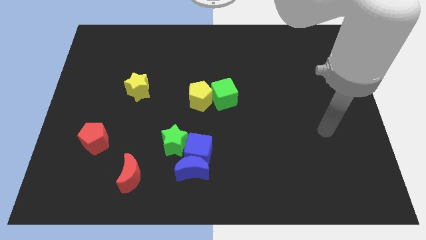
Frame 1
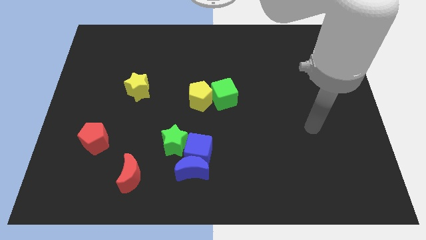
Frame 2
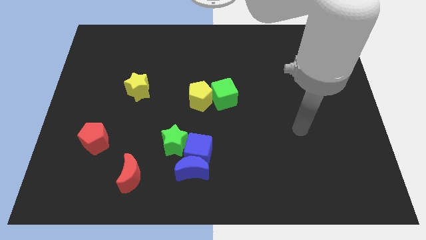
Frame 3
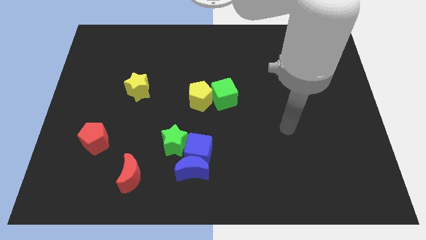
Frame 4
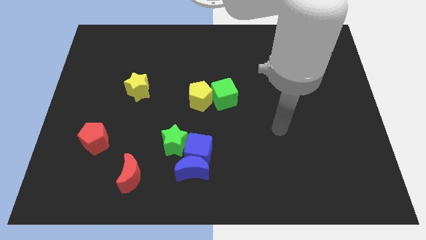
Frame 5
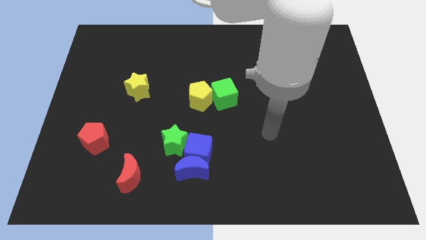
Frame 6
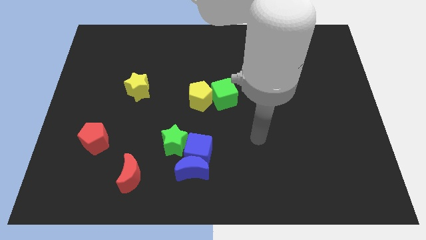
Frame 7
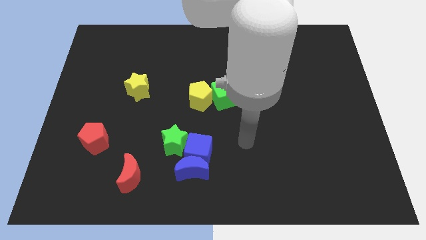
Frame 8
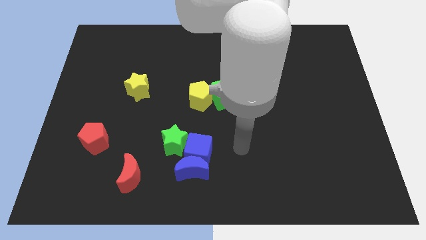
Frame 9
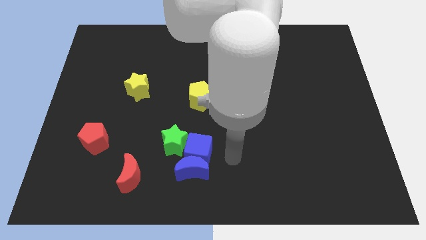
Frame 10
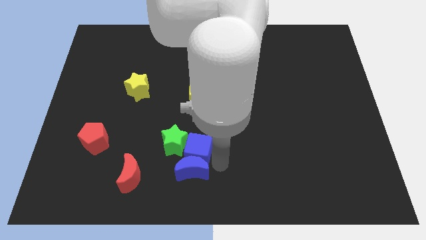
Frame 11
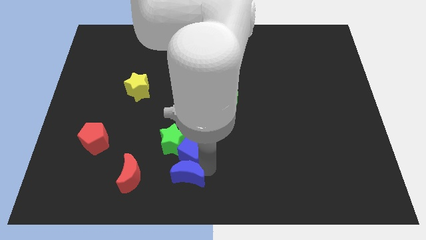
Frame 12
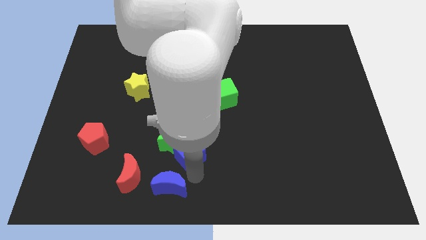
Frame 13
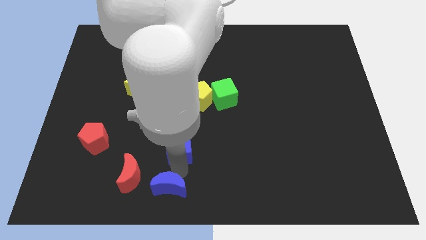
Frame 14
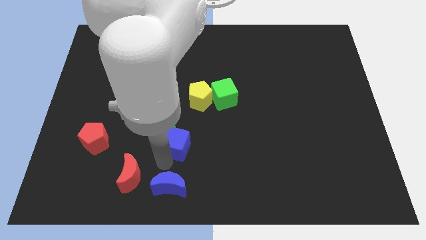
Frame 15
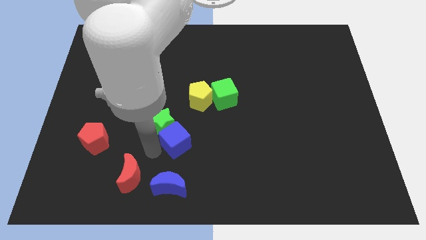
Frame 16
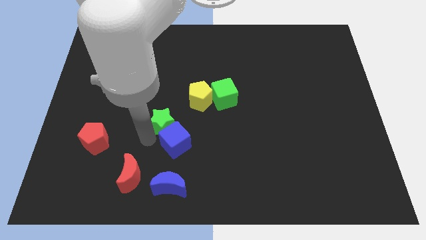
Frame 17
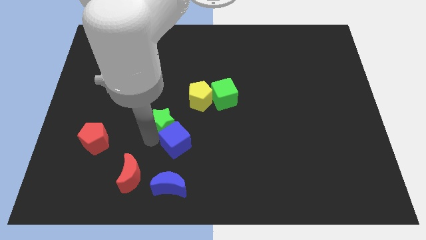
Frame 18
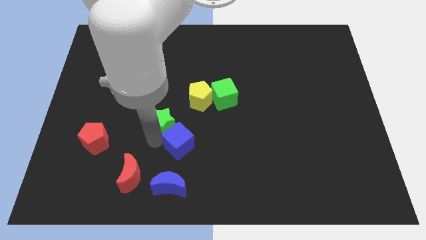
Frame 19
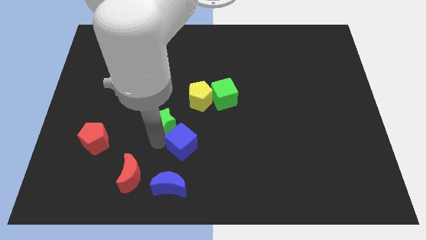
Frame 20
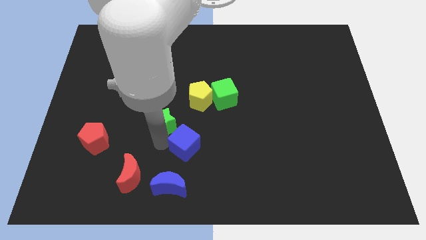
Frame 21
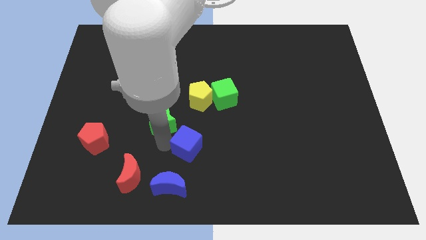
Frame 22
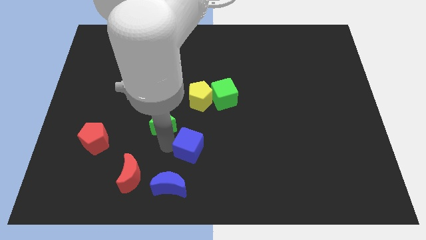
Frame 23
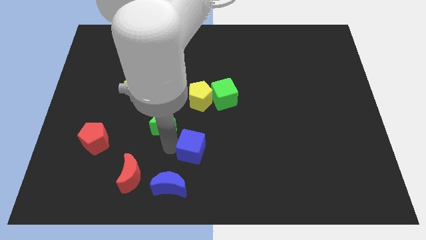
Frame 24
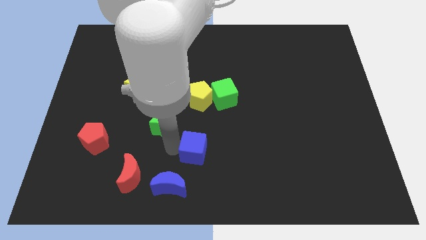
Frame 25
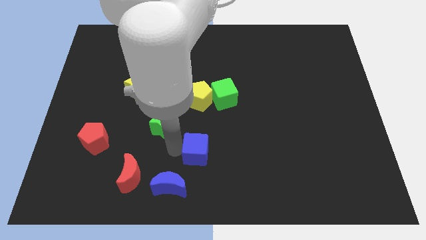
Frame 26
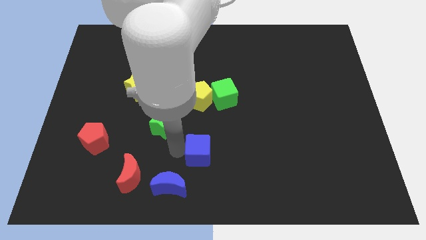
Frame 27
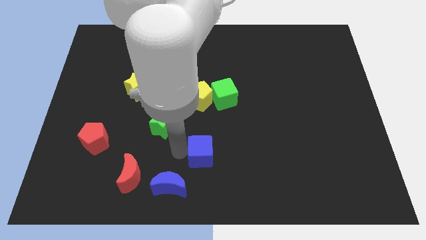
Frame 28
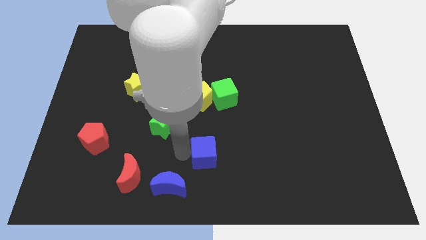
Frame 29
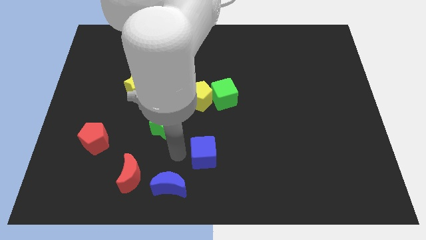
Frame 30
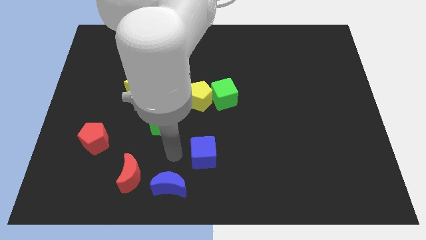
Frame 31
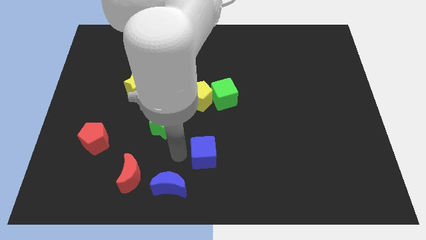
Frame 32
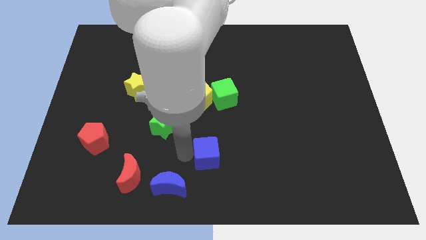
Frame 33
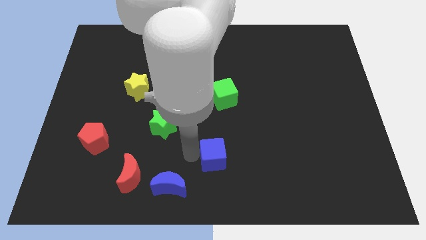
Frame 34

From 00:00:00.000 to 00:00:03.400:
move the blue cube away from the blue moon and green star

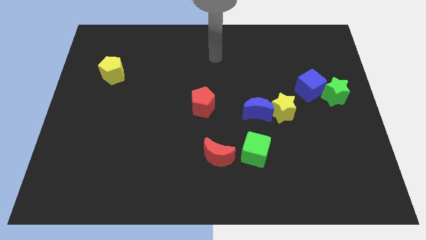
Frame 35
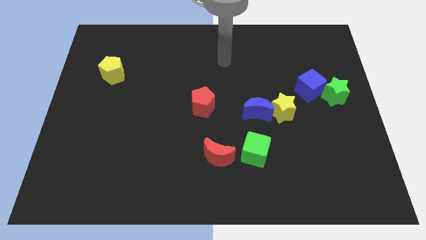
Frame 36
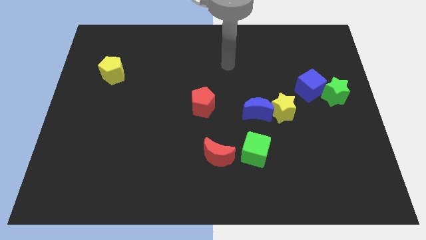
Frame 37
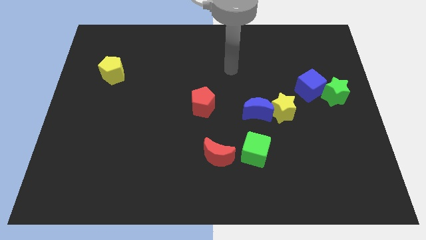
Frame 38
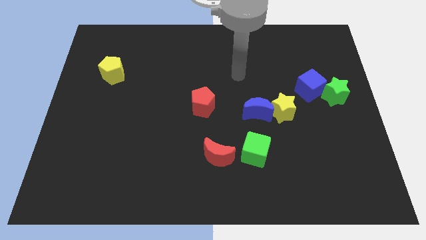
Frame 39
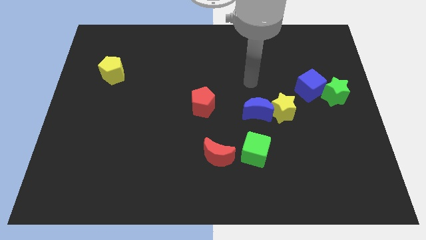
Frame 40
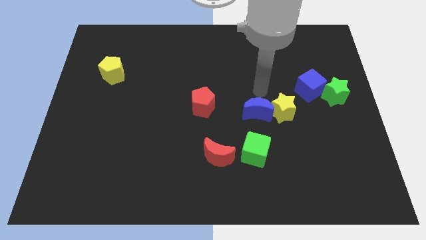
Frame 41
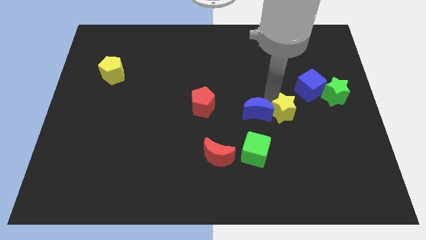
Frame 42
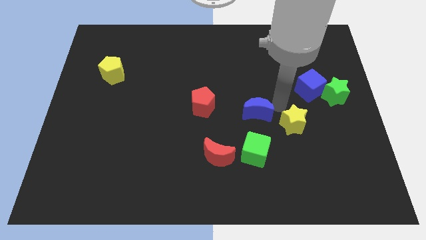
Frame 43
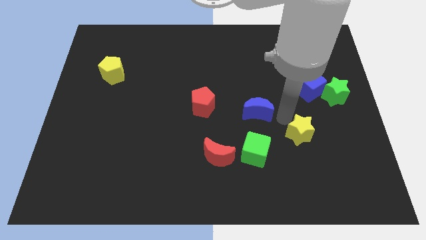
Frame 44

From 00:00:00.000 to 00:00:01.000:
separate the blue moon from the yellow star

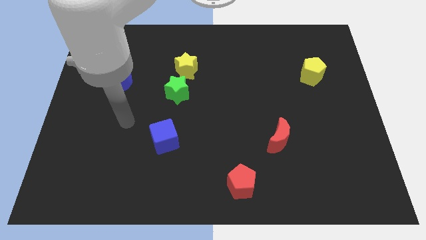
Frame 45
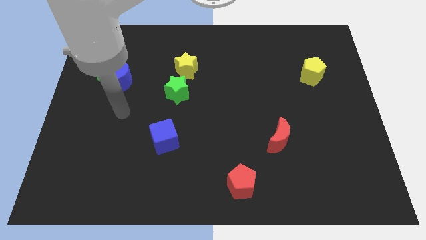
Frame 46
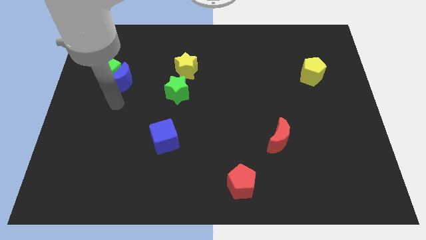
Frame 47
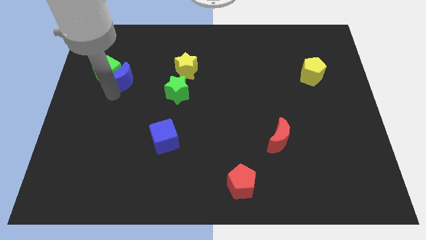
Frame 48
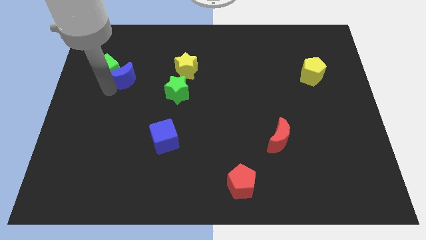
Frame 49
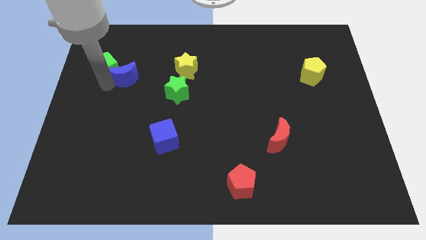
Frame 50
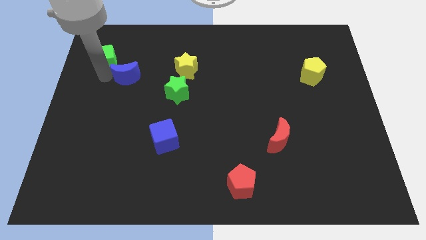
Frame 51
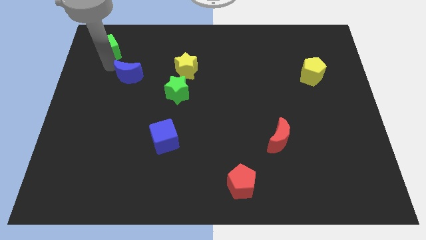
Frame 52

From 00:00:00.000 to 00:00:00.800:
separate the blue moon from the green cube

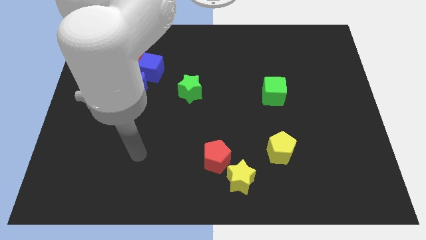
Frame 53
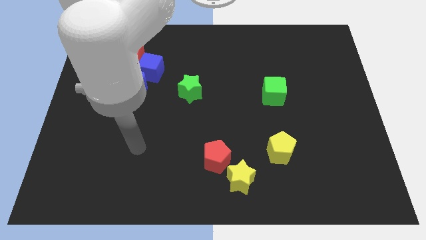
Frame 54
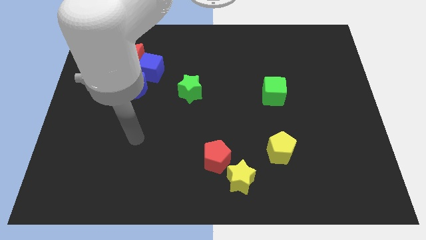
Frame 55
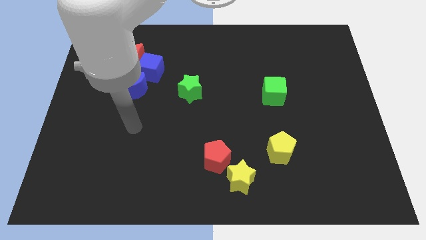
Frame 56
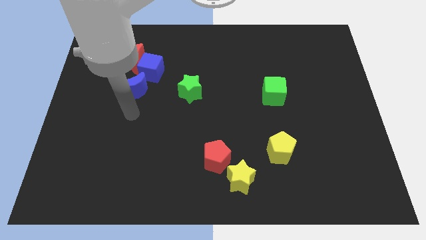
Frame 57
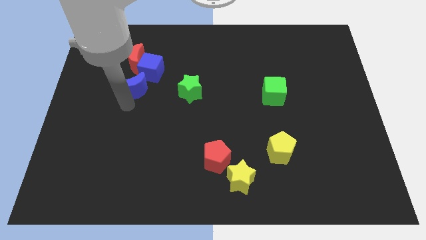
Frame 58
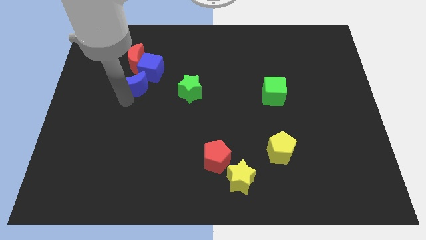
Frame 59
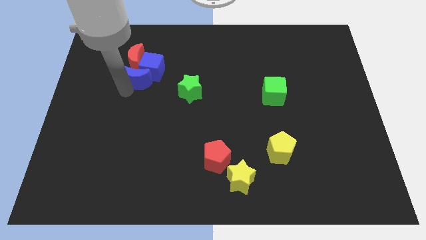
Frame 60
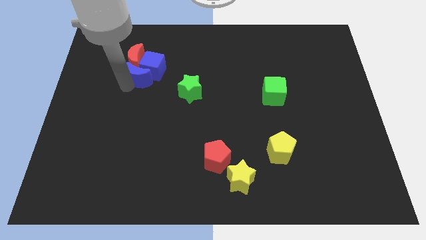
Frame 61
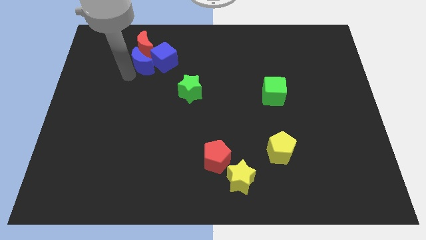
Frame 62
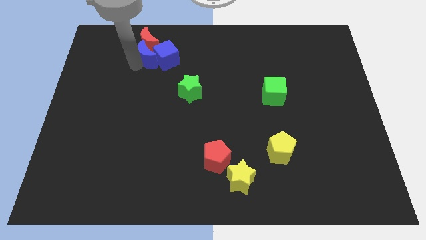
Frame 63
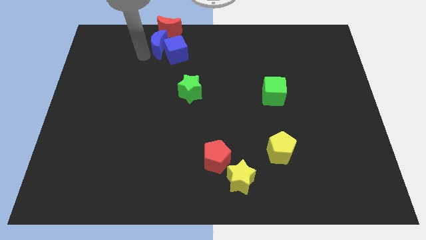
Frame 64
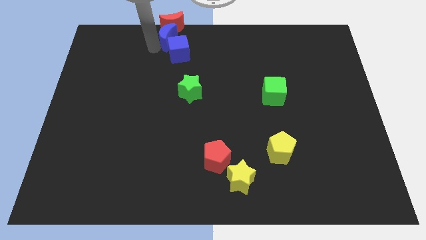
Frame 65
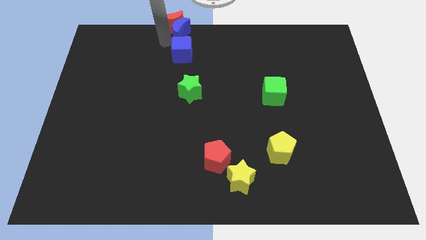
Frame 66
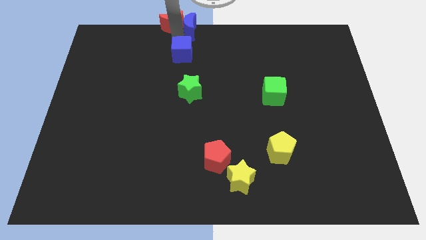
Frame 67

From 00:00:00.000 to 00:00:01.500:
pull the blue cube apart from the red moon and blue moon

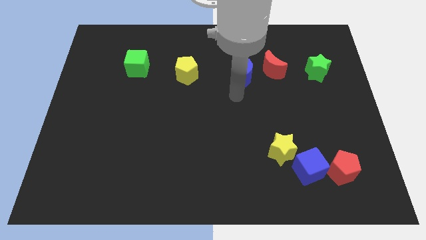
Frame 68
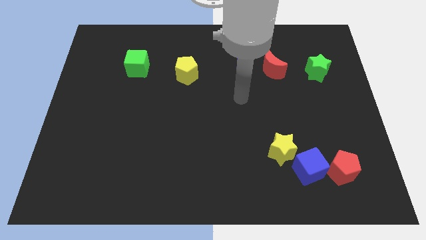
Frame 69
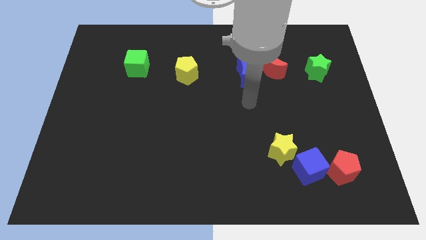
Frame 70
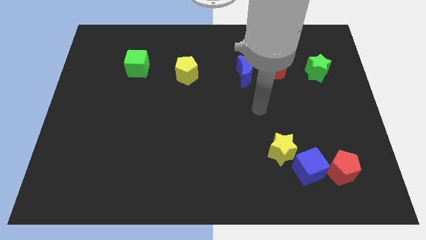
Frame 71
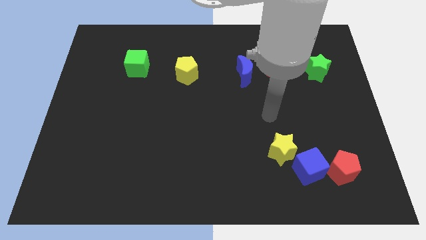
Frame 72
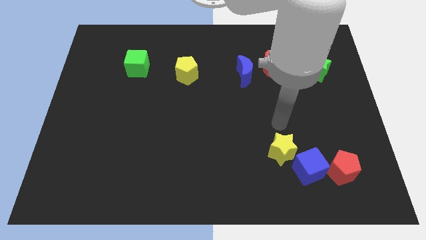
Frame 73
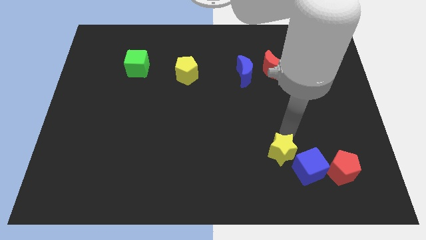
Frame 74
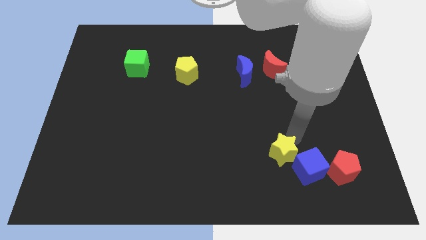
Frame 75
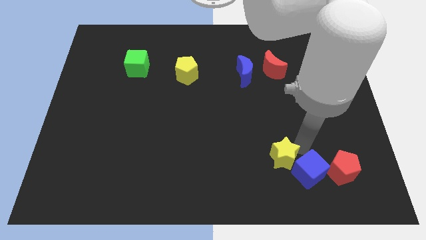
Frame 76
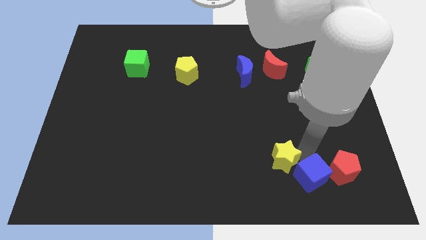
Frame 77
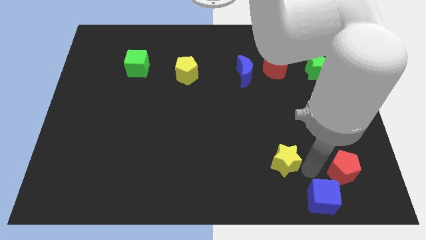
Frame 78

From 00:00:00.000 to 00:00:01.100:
pull the yellow star apart from the blue cube

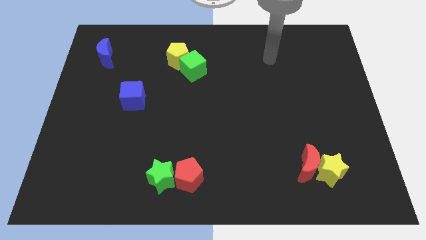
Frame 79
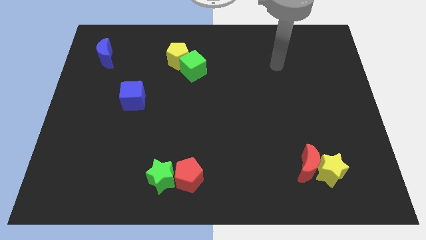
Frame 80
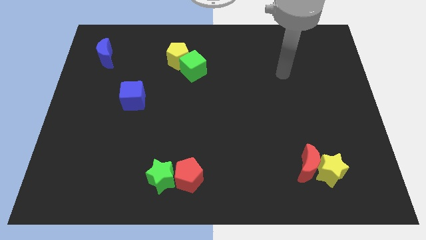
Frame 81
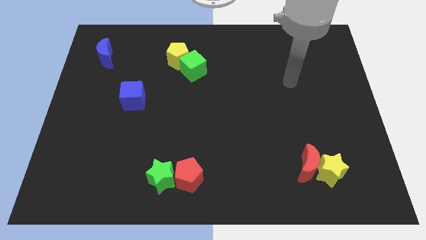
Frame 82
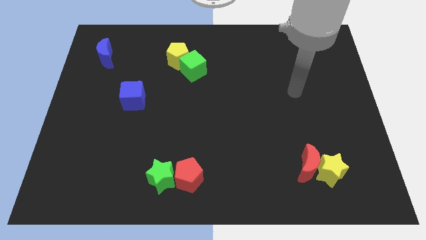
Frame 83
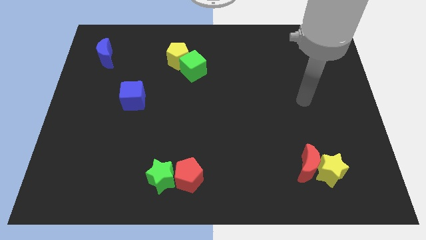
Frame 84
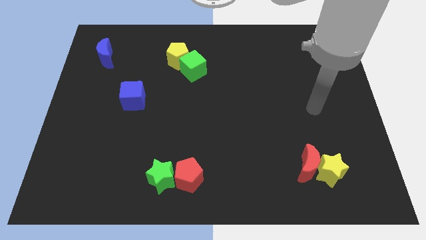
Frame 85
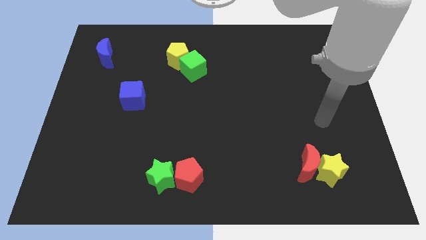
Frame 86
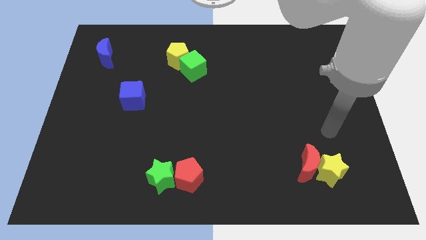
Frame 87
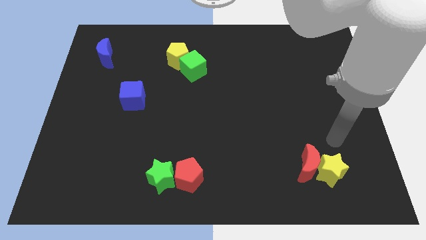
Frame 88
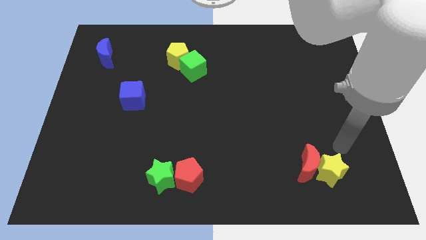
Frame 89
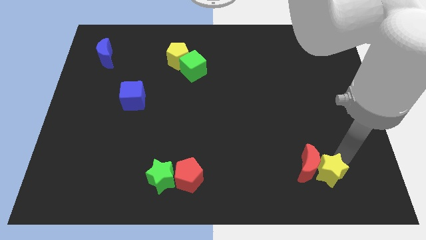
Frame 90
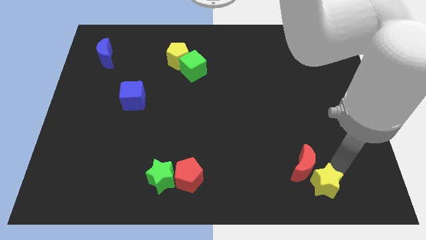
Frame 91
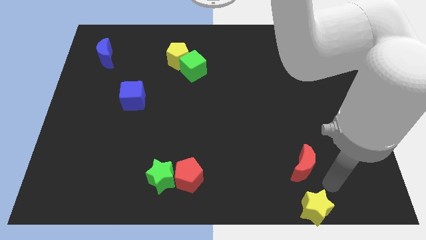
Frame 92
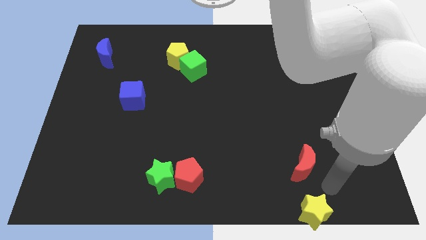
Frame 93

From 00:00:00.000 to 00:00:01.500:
pull the red moon apart from the yellow star
